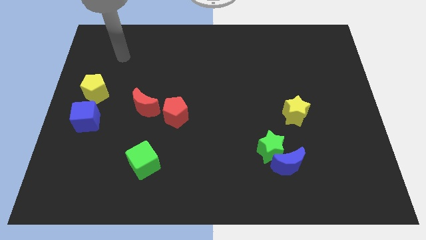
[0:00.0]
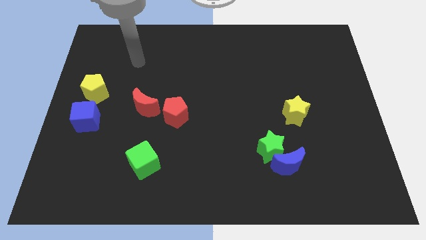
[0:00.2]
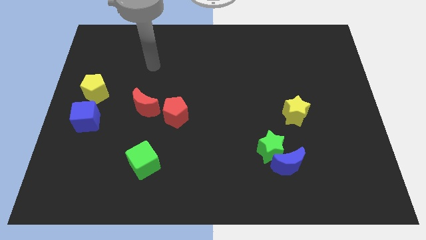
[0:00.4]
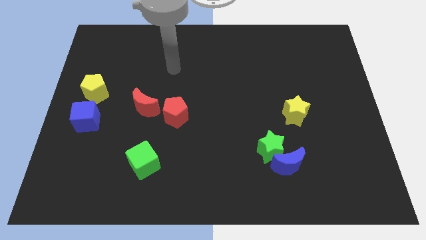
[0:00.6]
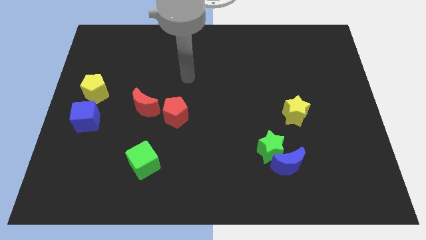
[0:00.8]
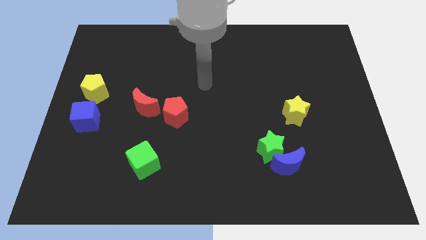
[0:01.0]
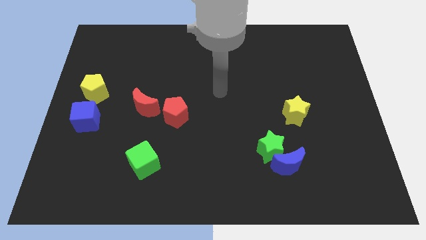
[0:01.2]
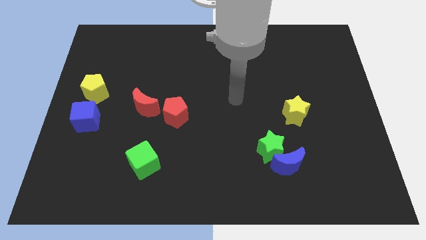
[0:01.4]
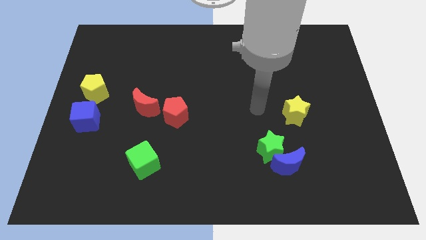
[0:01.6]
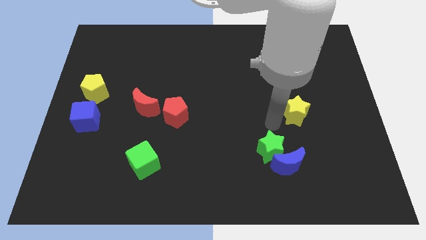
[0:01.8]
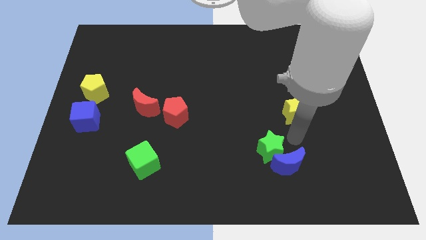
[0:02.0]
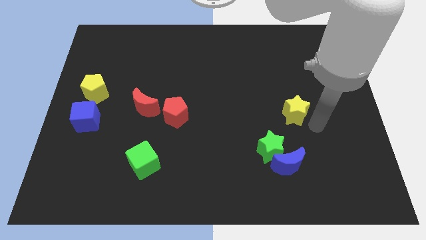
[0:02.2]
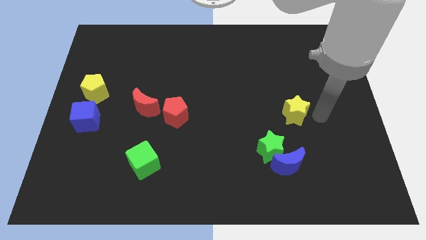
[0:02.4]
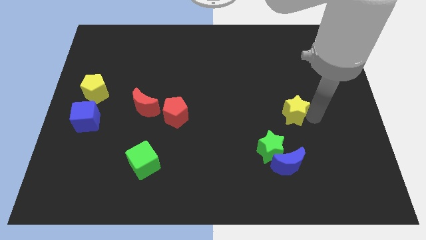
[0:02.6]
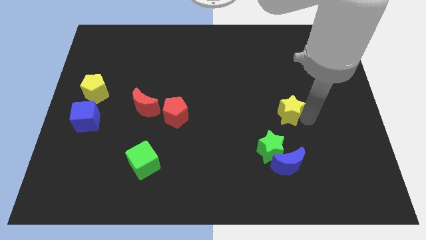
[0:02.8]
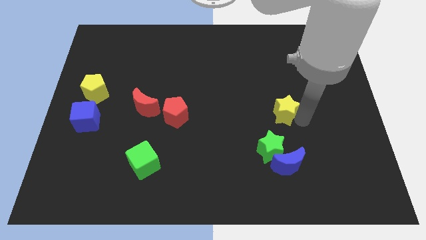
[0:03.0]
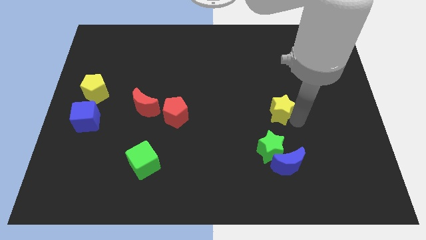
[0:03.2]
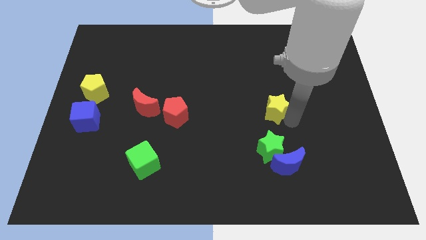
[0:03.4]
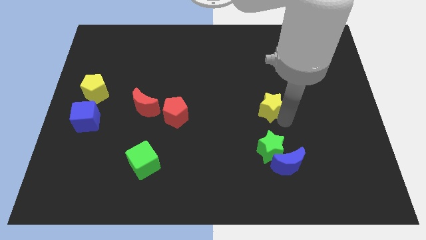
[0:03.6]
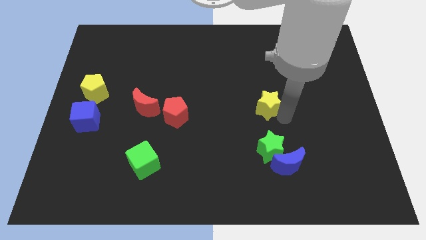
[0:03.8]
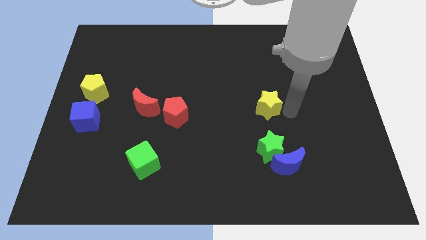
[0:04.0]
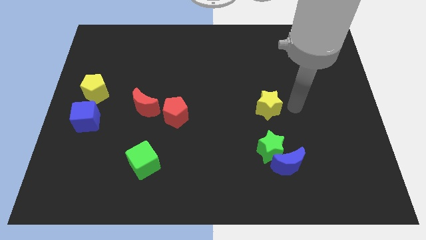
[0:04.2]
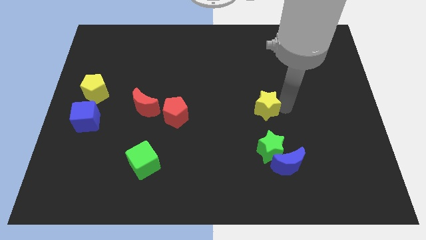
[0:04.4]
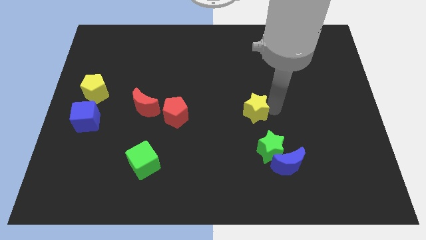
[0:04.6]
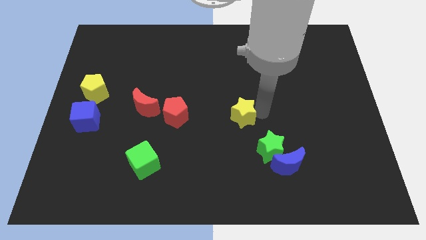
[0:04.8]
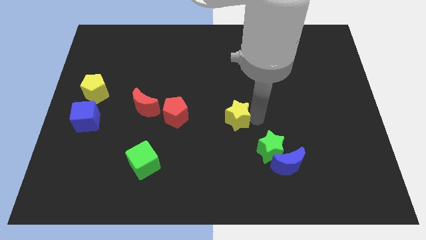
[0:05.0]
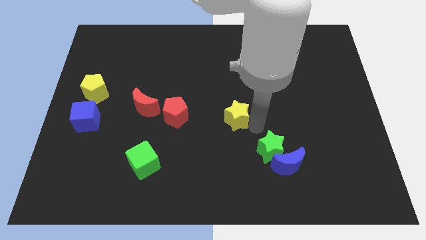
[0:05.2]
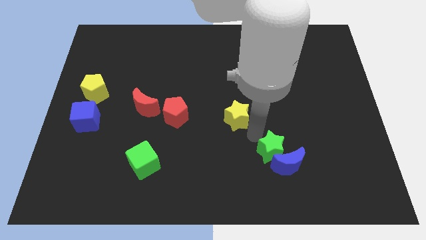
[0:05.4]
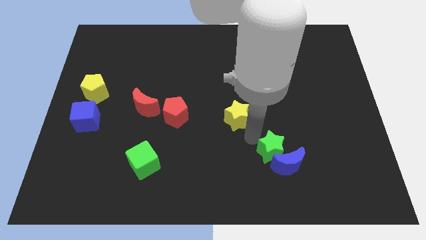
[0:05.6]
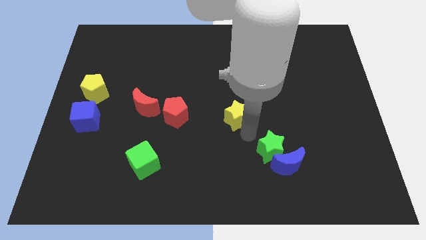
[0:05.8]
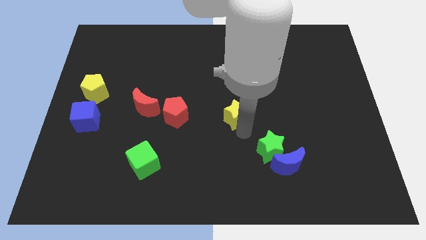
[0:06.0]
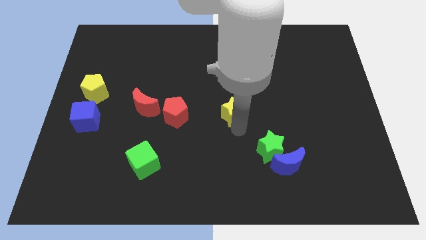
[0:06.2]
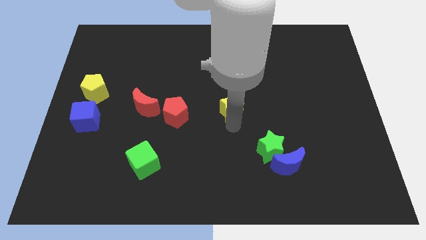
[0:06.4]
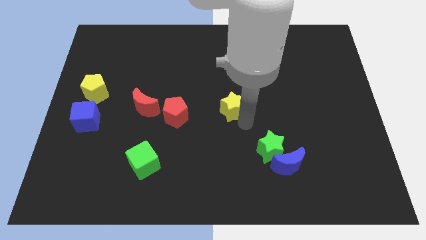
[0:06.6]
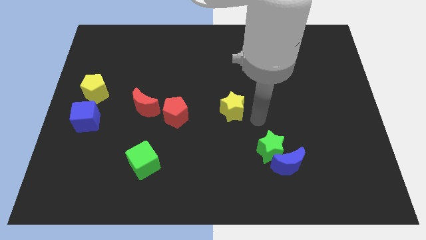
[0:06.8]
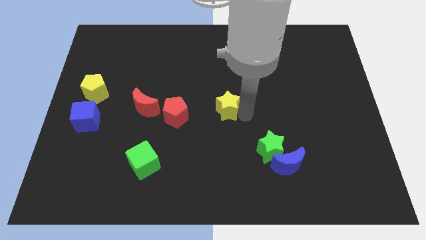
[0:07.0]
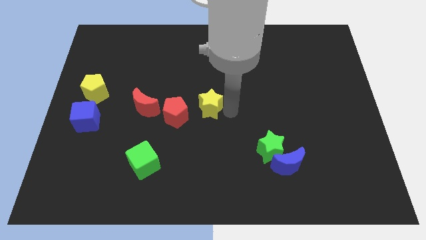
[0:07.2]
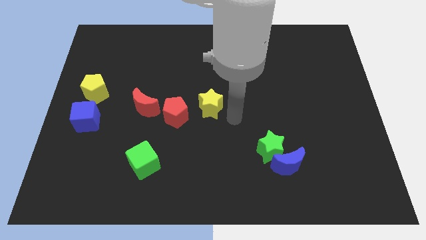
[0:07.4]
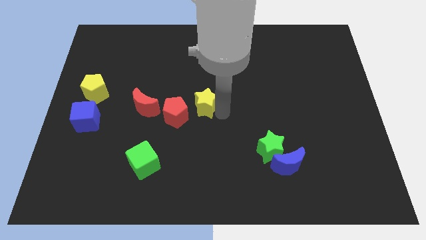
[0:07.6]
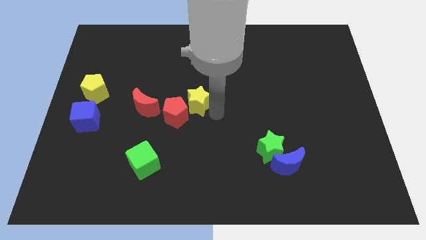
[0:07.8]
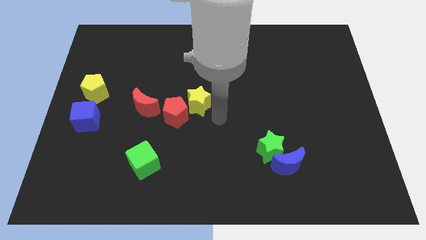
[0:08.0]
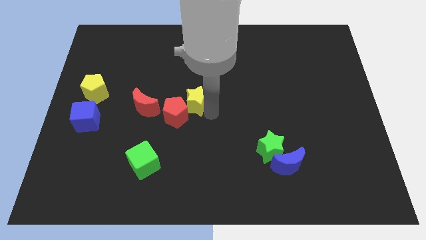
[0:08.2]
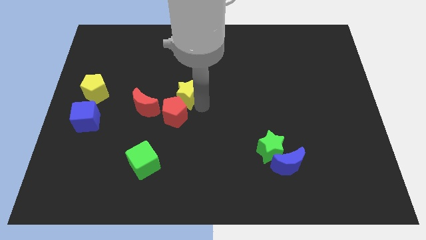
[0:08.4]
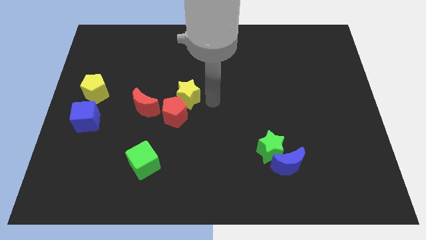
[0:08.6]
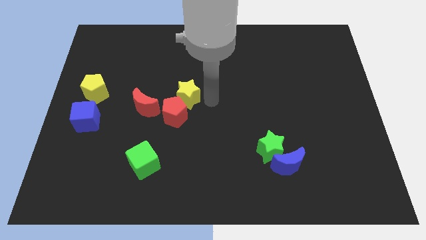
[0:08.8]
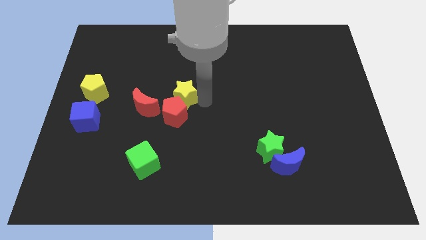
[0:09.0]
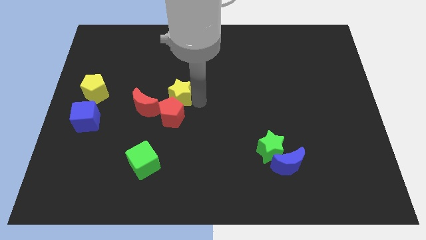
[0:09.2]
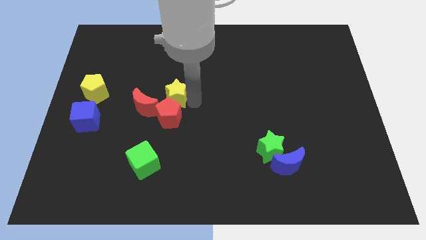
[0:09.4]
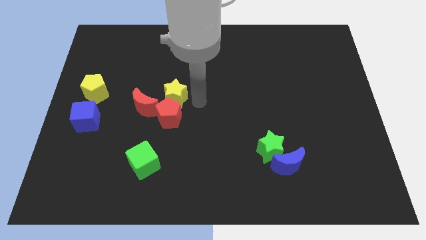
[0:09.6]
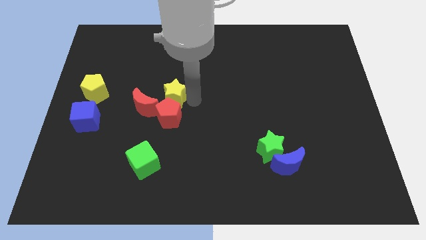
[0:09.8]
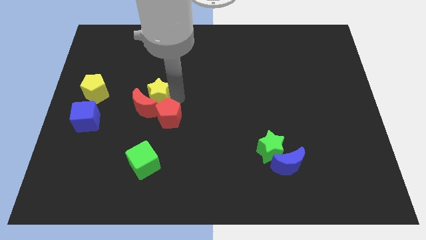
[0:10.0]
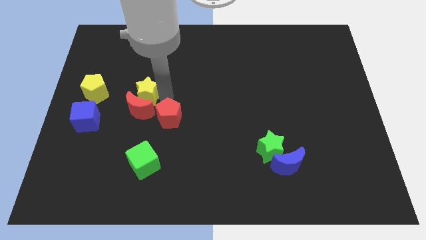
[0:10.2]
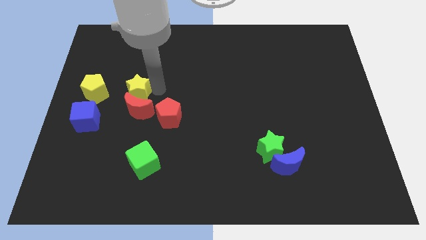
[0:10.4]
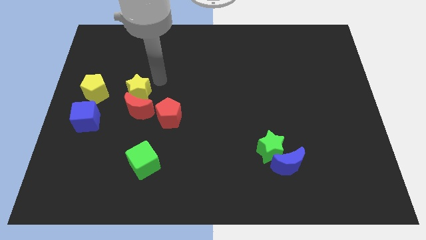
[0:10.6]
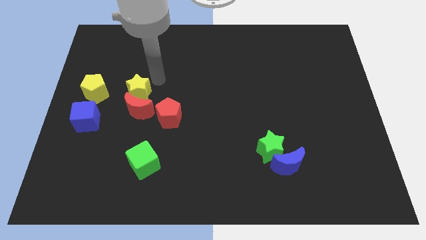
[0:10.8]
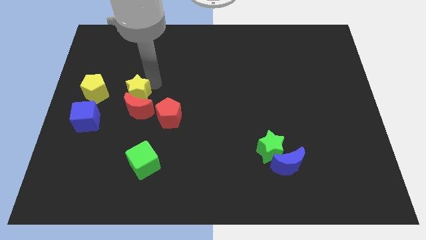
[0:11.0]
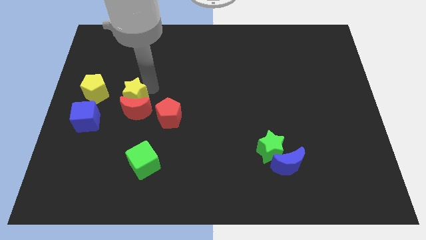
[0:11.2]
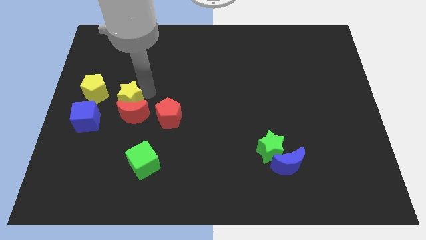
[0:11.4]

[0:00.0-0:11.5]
put the yellow star to the bottom right of the yellow pentagon
